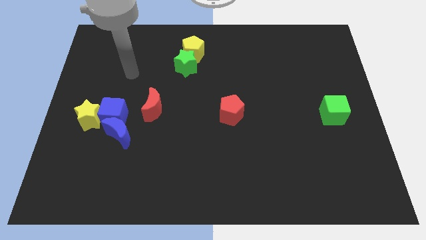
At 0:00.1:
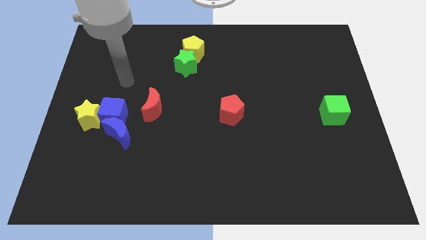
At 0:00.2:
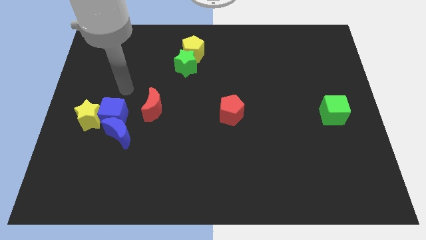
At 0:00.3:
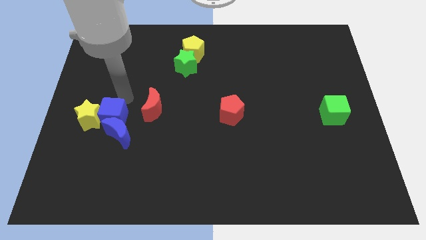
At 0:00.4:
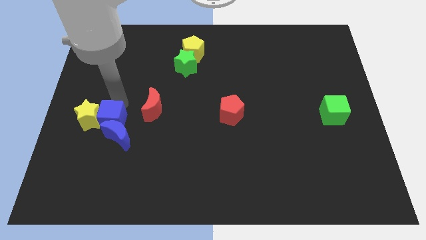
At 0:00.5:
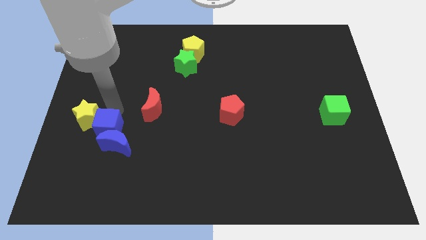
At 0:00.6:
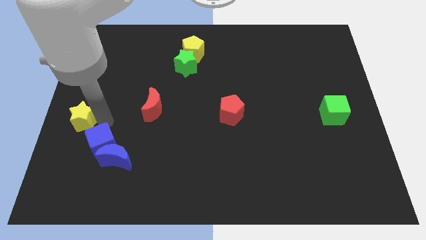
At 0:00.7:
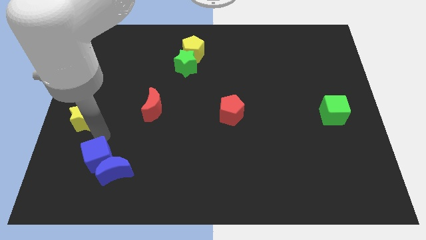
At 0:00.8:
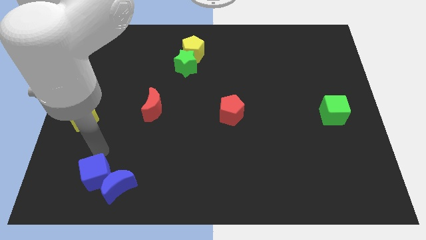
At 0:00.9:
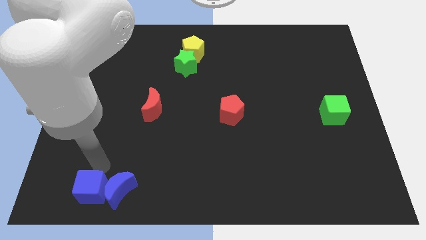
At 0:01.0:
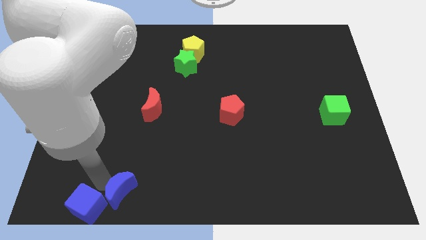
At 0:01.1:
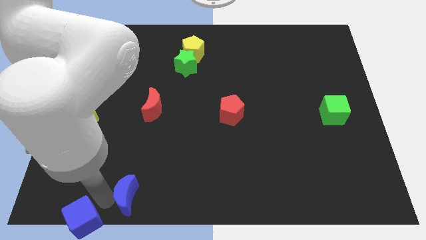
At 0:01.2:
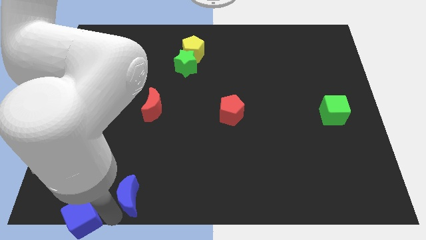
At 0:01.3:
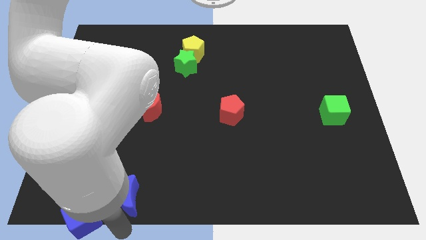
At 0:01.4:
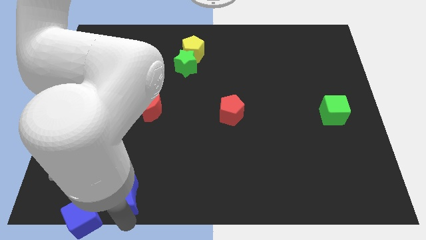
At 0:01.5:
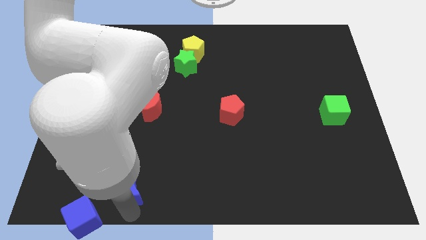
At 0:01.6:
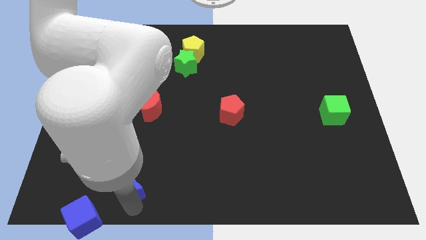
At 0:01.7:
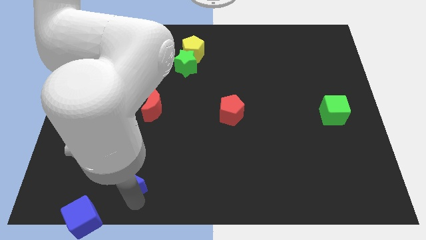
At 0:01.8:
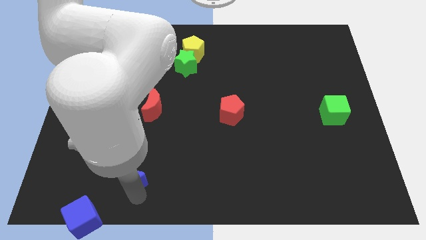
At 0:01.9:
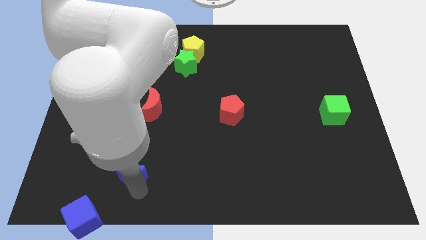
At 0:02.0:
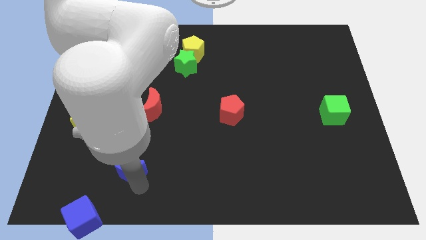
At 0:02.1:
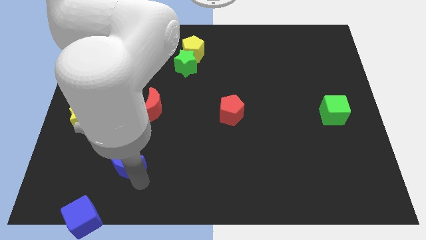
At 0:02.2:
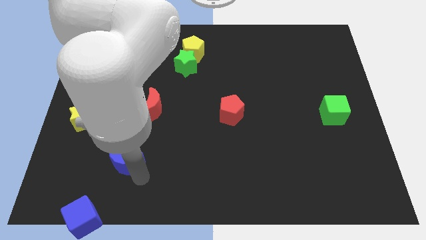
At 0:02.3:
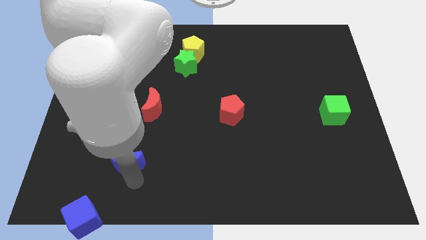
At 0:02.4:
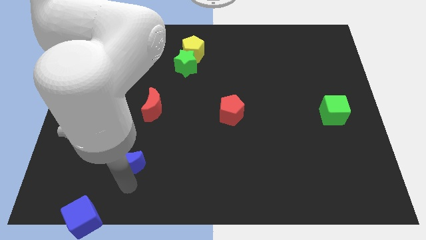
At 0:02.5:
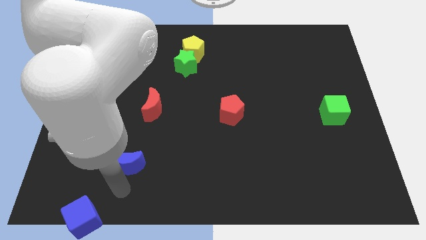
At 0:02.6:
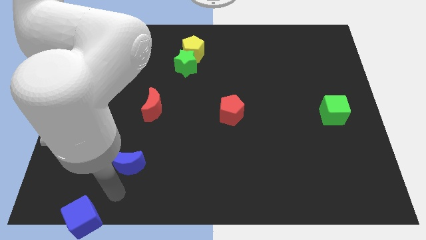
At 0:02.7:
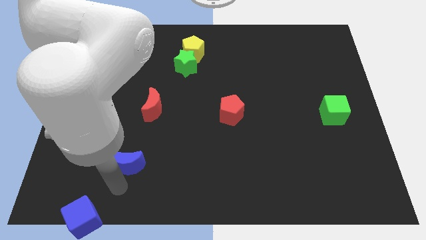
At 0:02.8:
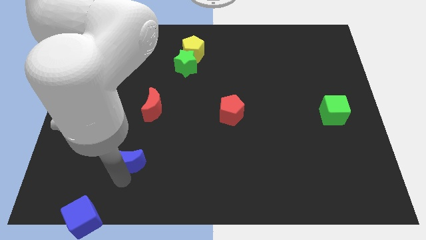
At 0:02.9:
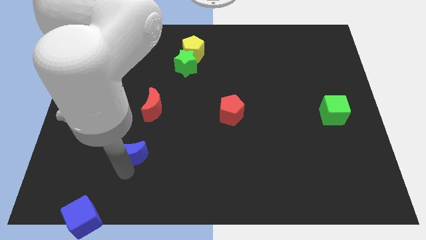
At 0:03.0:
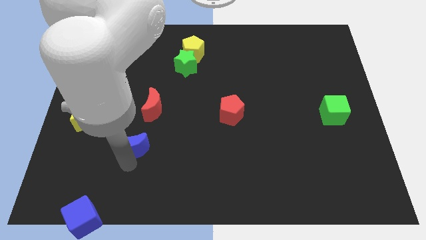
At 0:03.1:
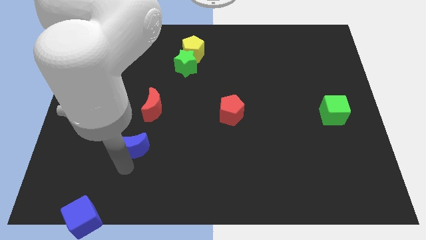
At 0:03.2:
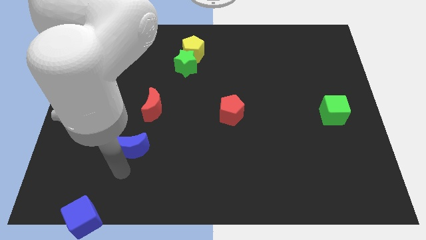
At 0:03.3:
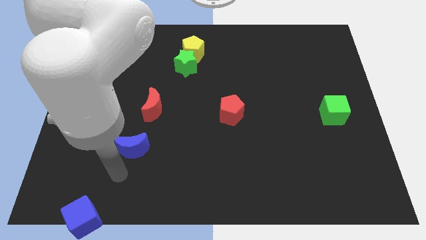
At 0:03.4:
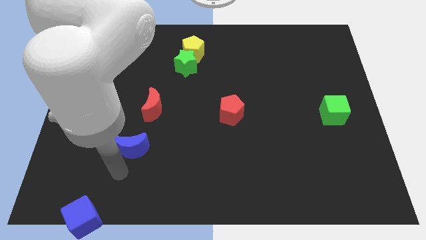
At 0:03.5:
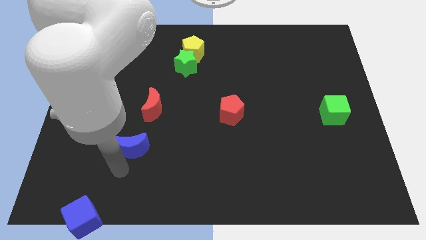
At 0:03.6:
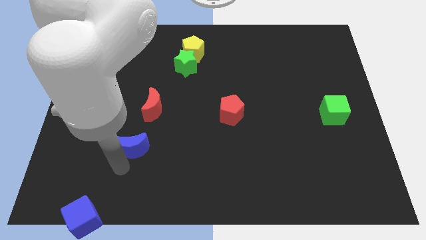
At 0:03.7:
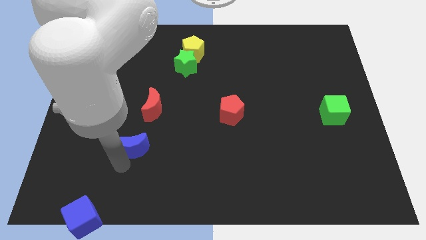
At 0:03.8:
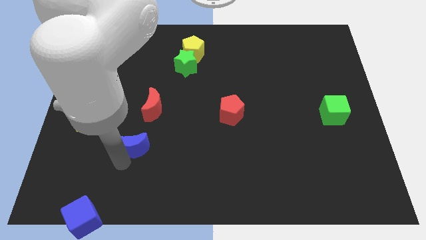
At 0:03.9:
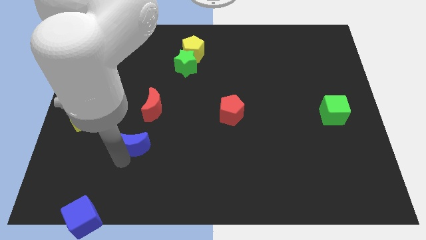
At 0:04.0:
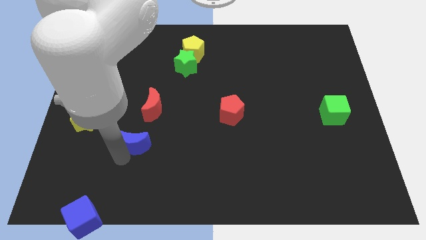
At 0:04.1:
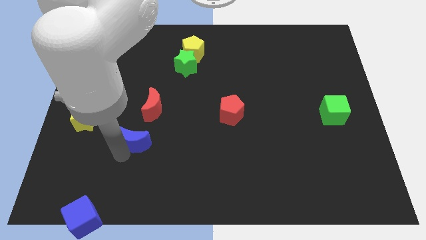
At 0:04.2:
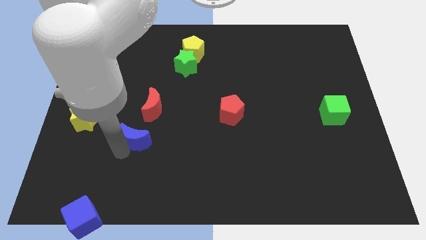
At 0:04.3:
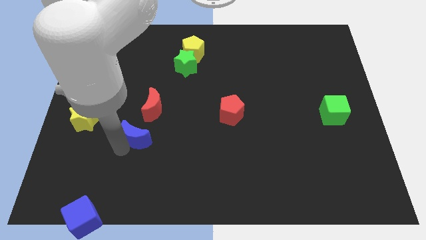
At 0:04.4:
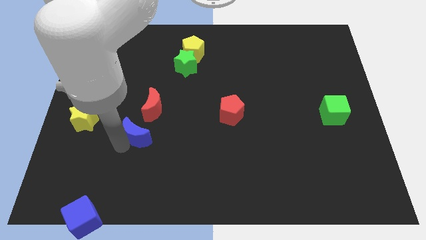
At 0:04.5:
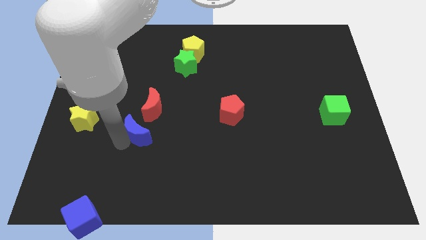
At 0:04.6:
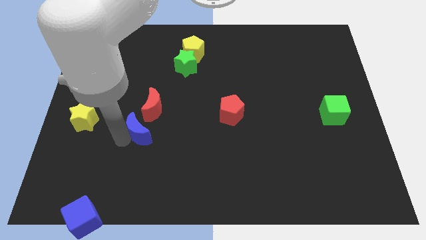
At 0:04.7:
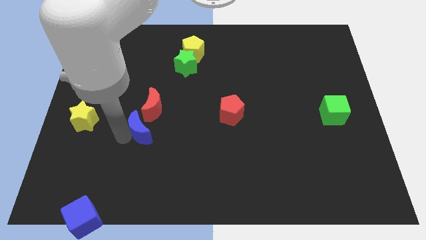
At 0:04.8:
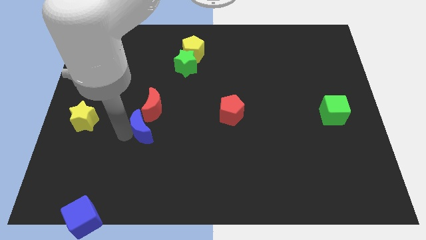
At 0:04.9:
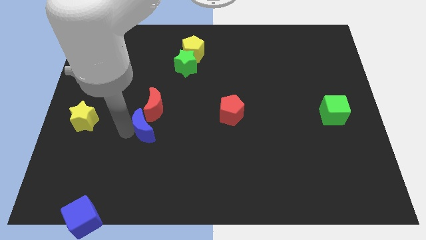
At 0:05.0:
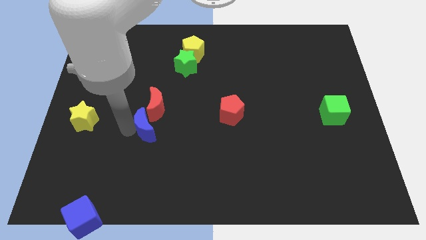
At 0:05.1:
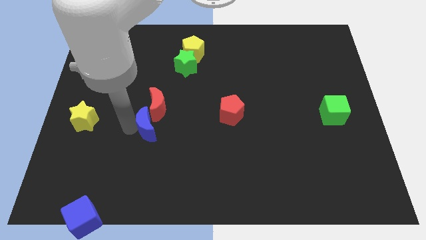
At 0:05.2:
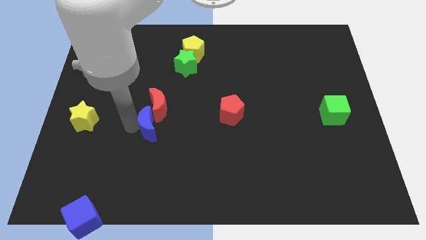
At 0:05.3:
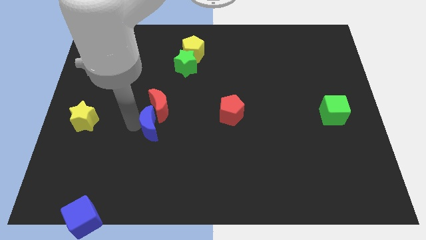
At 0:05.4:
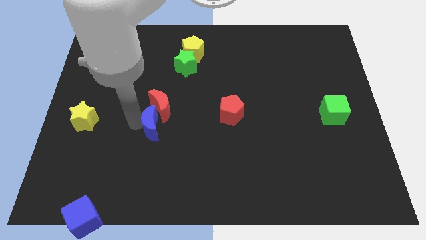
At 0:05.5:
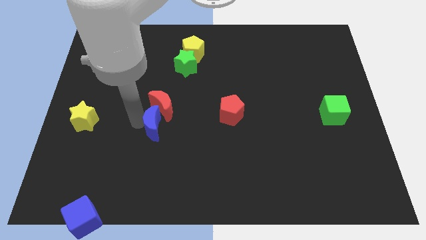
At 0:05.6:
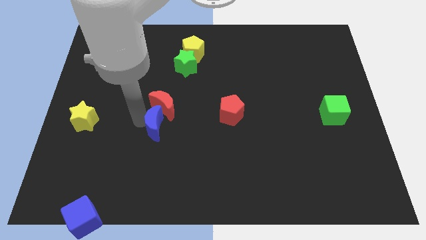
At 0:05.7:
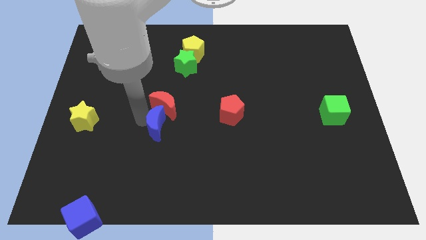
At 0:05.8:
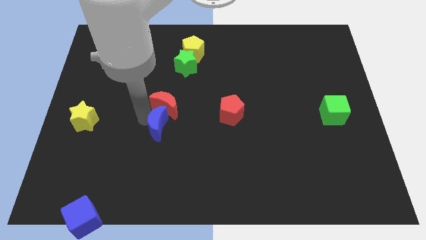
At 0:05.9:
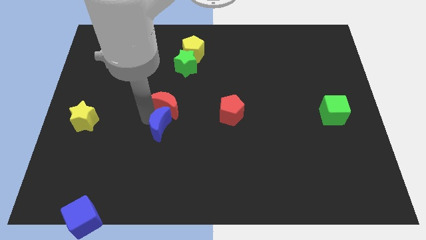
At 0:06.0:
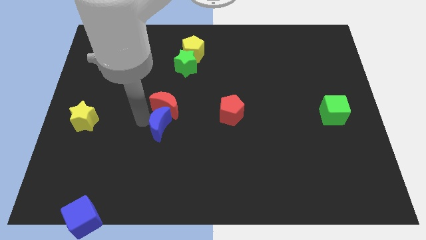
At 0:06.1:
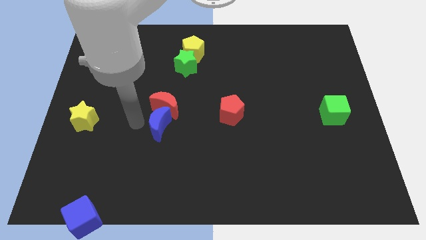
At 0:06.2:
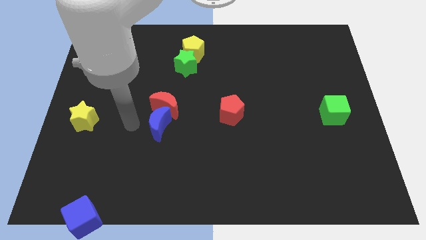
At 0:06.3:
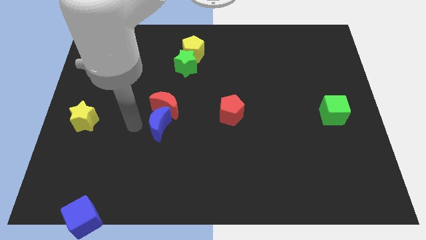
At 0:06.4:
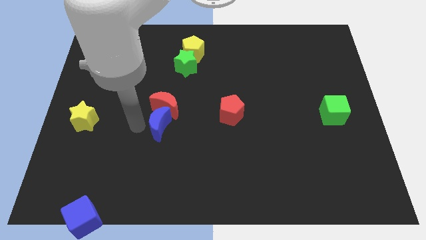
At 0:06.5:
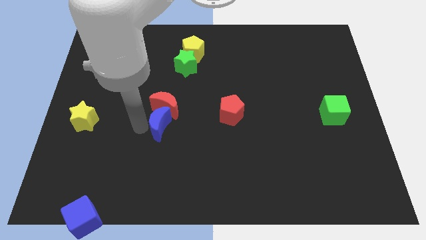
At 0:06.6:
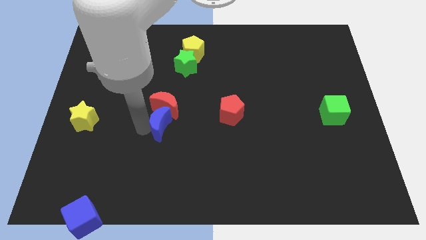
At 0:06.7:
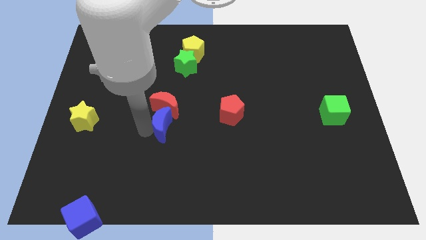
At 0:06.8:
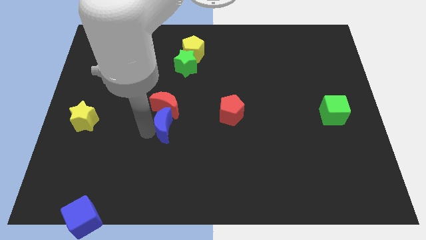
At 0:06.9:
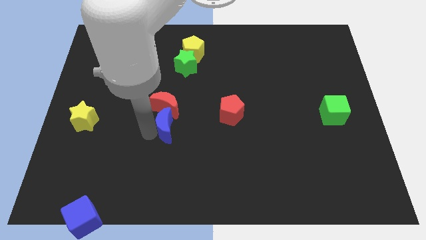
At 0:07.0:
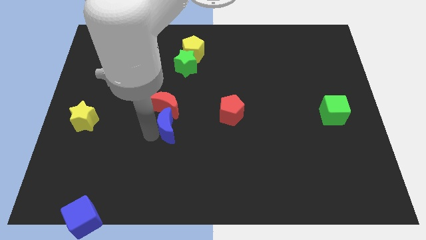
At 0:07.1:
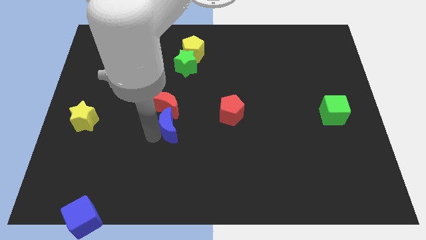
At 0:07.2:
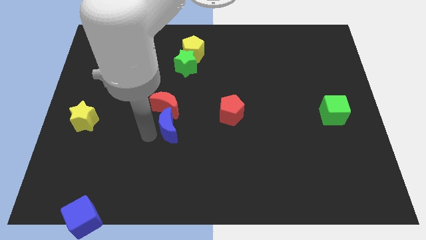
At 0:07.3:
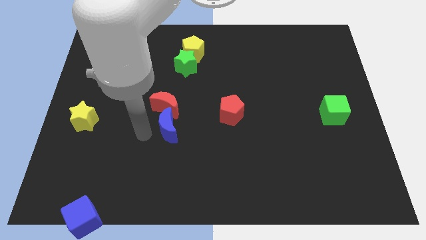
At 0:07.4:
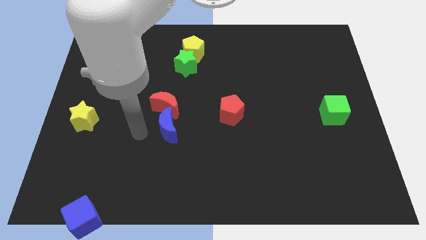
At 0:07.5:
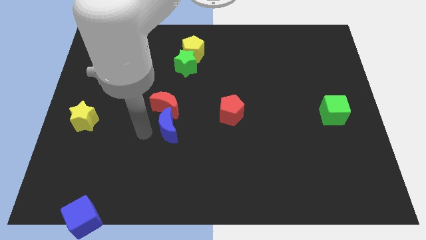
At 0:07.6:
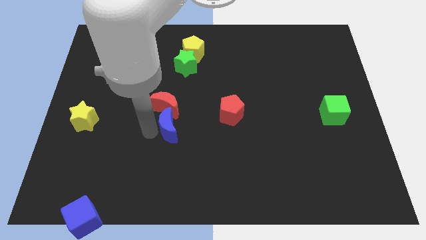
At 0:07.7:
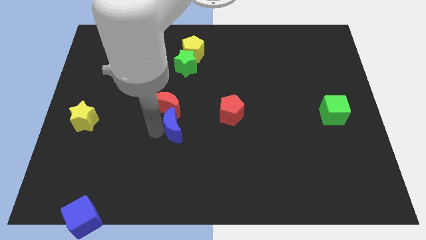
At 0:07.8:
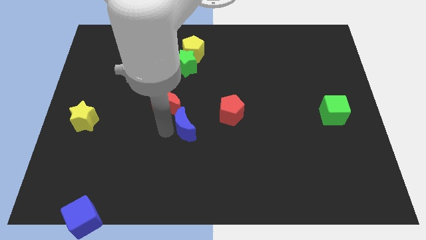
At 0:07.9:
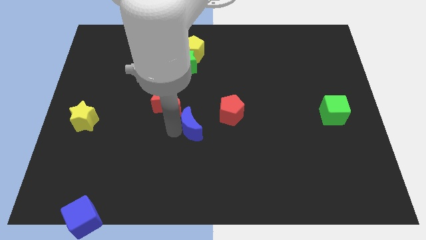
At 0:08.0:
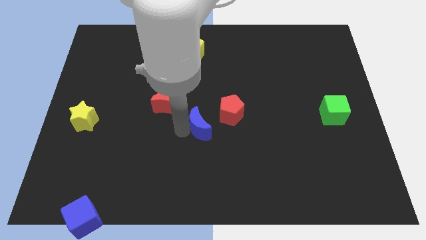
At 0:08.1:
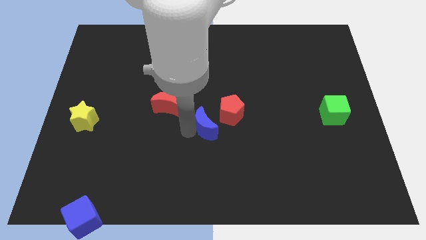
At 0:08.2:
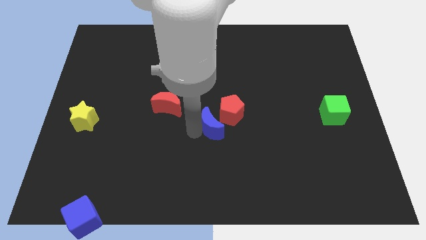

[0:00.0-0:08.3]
push the blue moon towards the red pentagon
